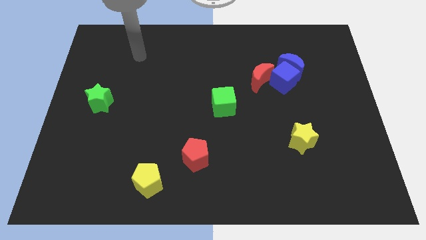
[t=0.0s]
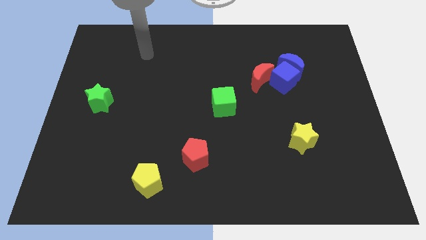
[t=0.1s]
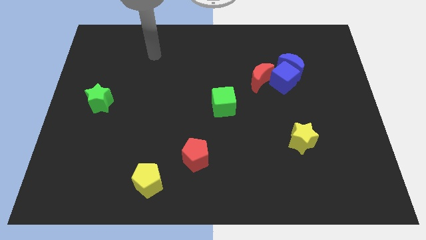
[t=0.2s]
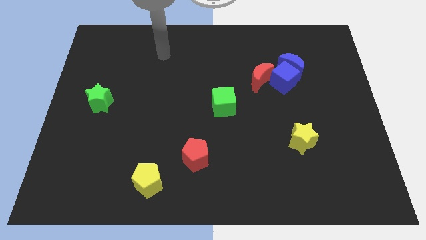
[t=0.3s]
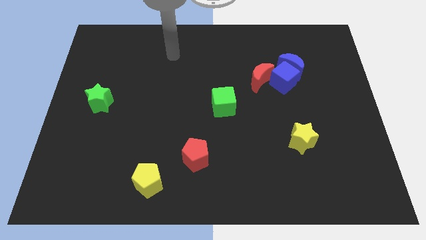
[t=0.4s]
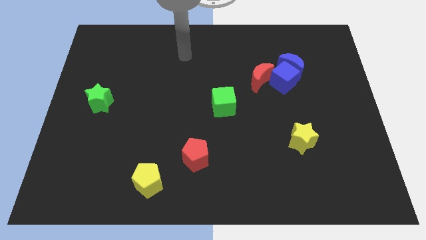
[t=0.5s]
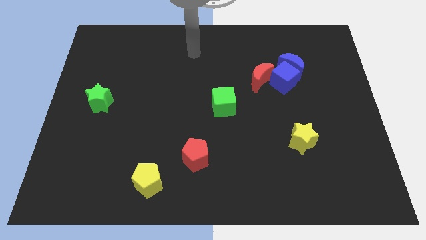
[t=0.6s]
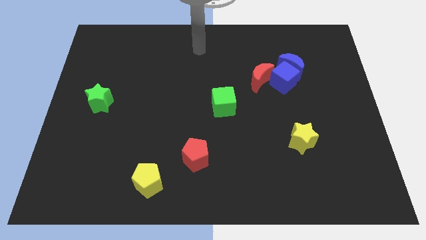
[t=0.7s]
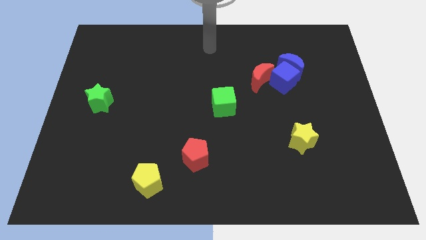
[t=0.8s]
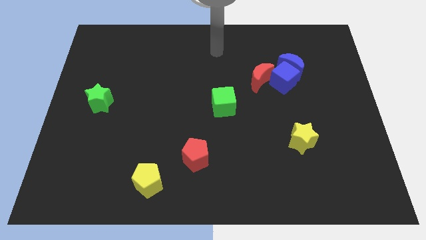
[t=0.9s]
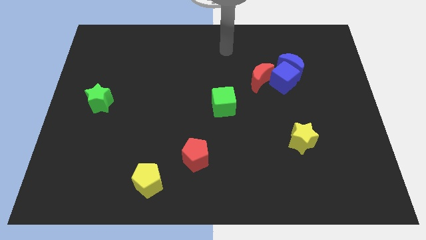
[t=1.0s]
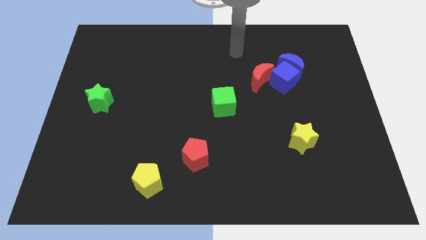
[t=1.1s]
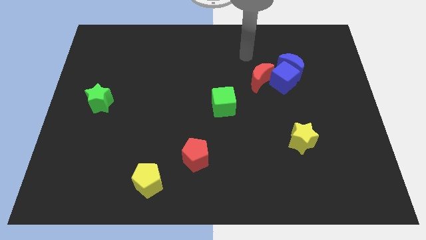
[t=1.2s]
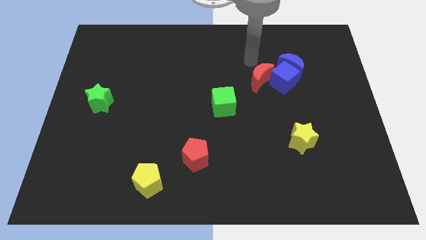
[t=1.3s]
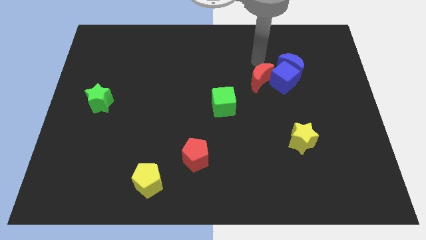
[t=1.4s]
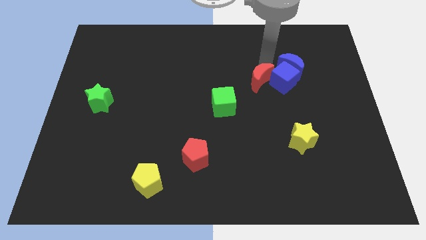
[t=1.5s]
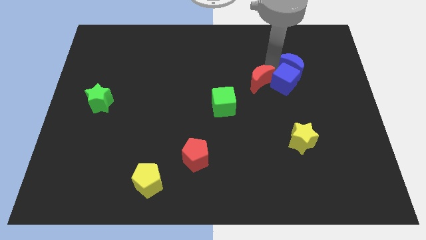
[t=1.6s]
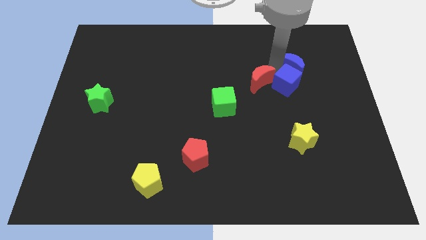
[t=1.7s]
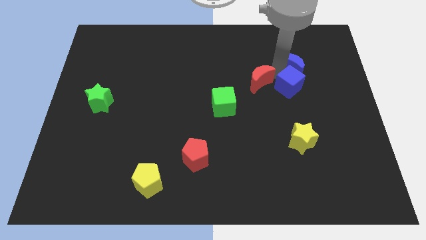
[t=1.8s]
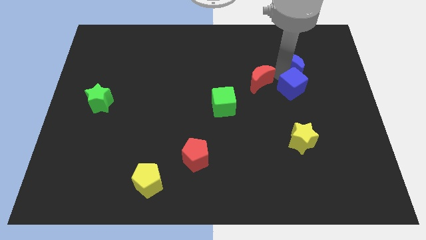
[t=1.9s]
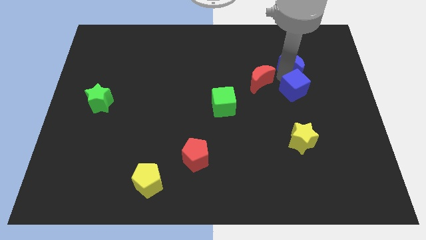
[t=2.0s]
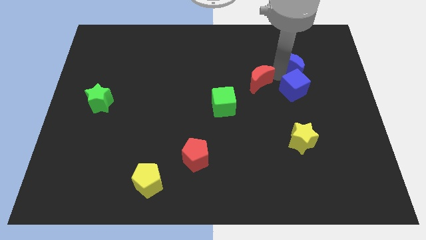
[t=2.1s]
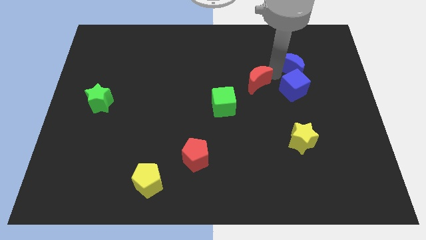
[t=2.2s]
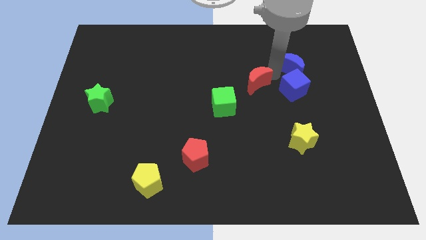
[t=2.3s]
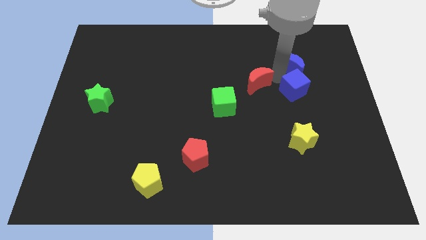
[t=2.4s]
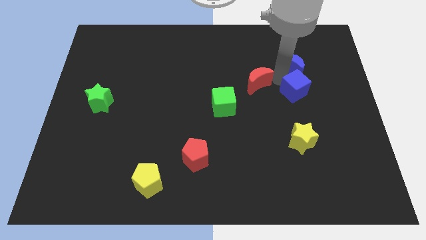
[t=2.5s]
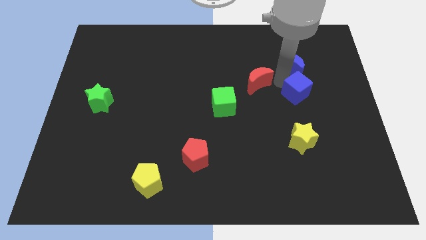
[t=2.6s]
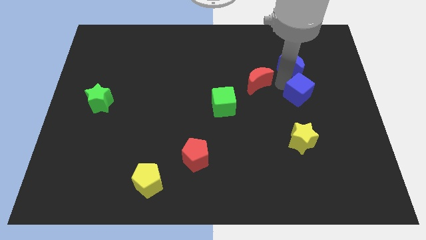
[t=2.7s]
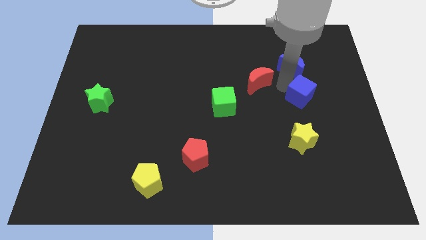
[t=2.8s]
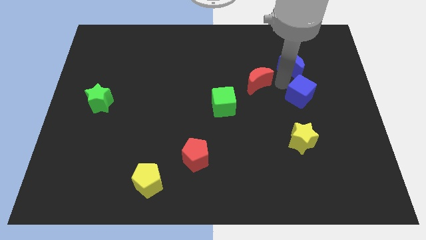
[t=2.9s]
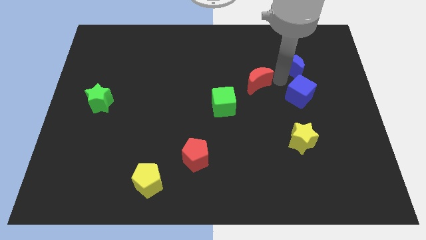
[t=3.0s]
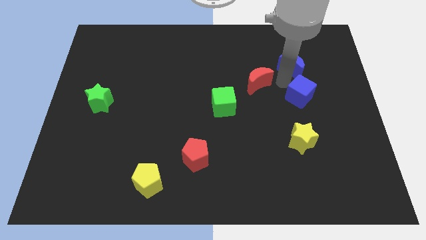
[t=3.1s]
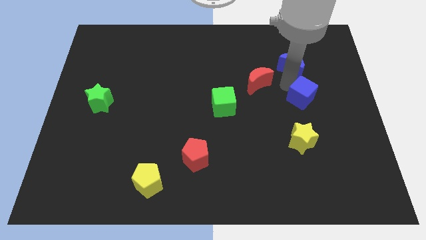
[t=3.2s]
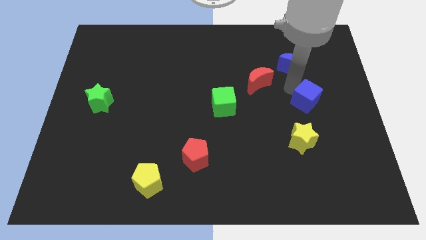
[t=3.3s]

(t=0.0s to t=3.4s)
separate the blue cube from the blue moon and red moon

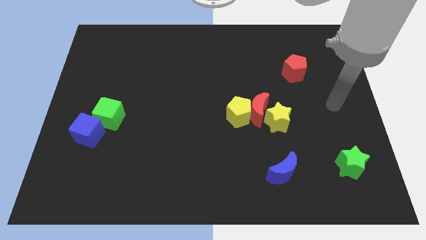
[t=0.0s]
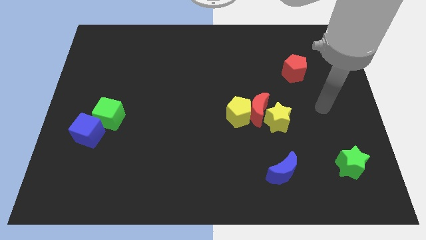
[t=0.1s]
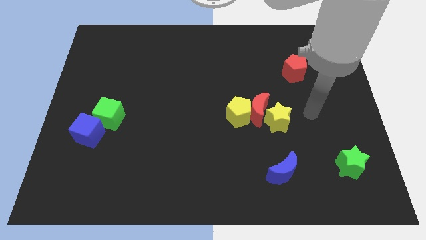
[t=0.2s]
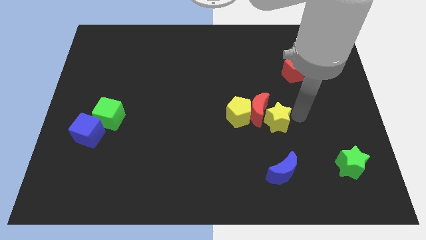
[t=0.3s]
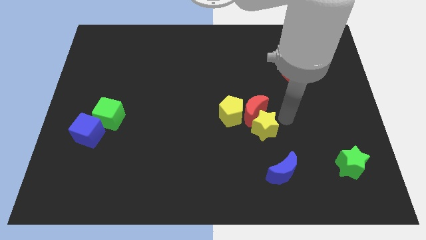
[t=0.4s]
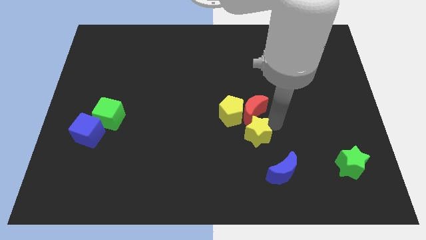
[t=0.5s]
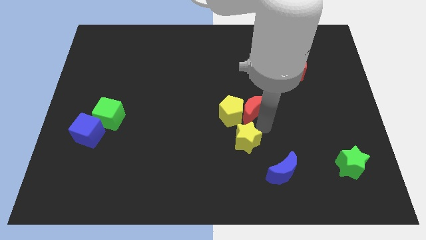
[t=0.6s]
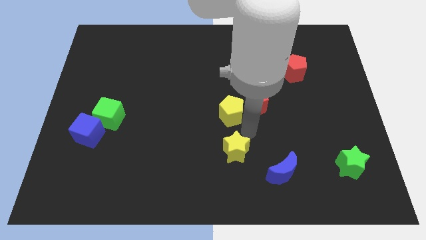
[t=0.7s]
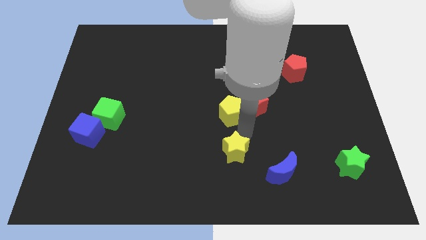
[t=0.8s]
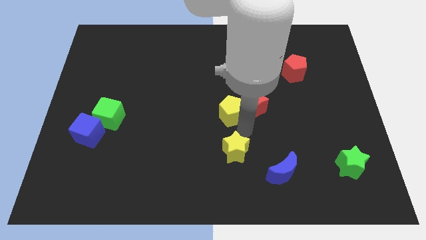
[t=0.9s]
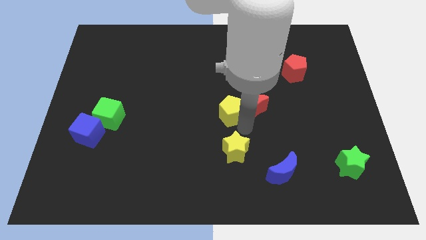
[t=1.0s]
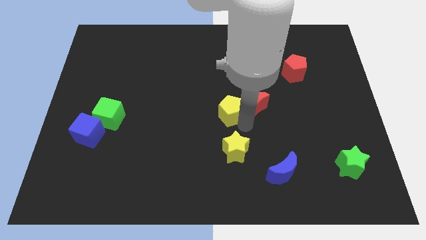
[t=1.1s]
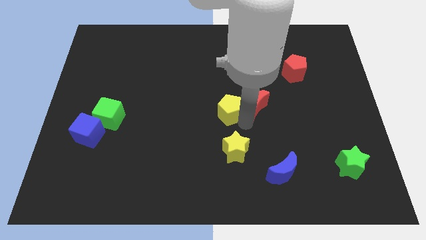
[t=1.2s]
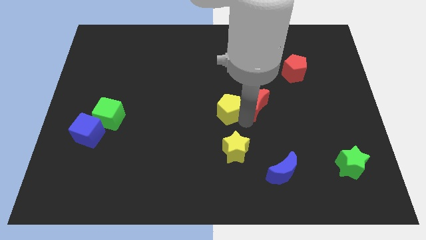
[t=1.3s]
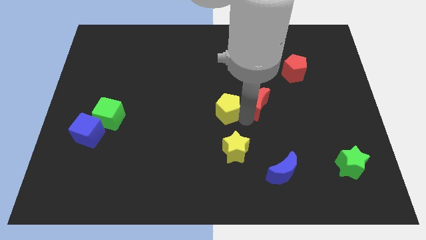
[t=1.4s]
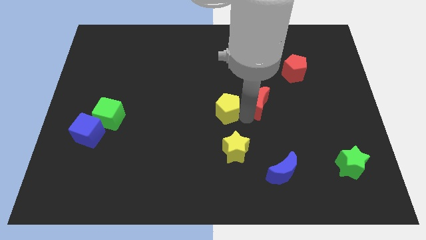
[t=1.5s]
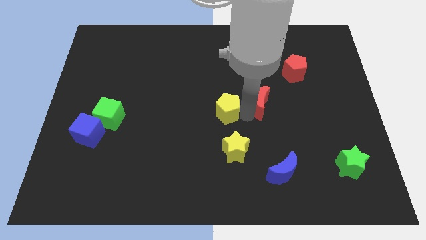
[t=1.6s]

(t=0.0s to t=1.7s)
move the red moon away from the yellow pentagon and yellow star

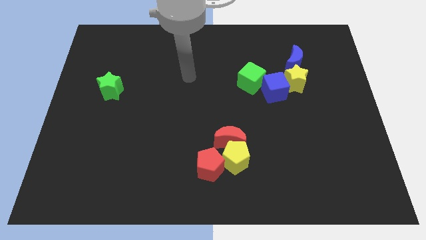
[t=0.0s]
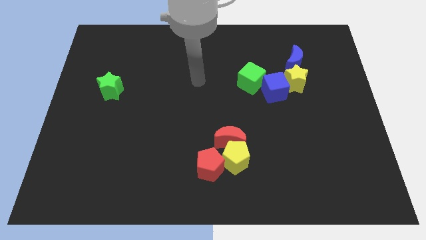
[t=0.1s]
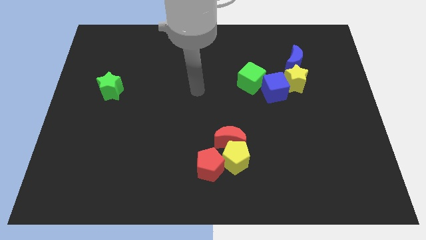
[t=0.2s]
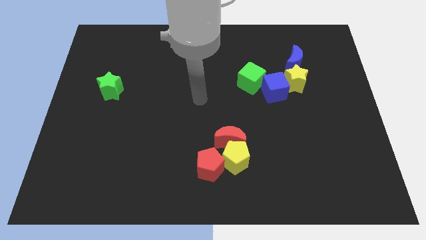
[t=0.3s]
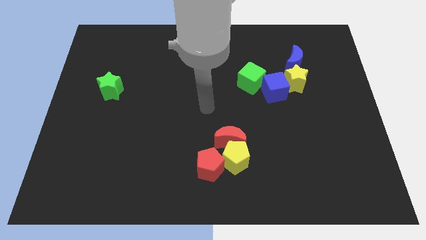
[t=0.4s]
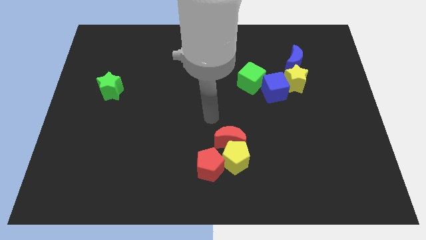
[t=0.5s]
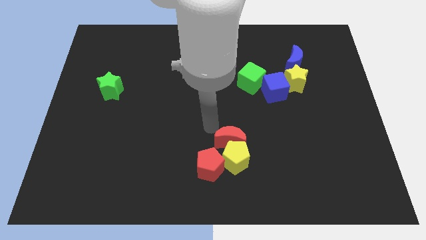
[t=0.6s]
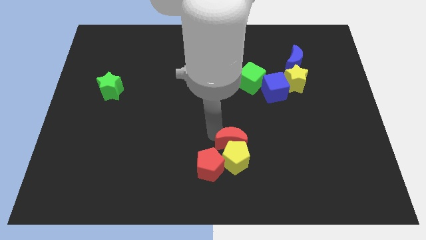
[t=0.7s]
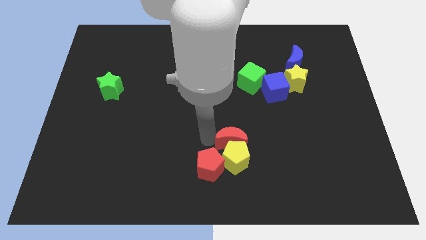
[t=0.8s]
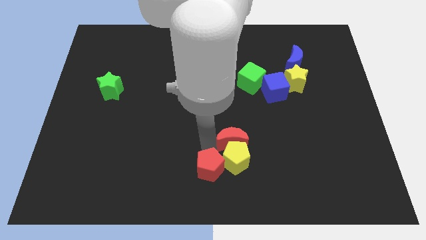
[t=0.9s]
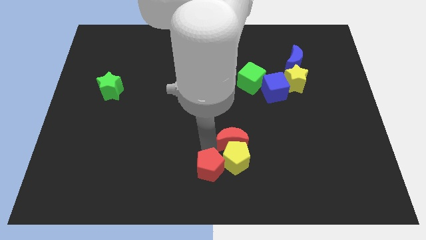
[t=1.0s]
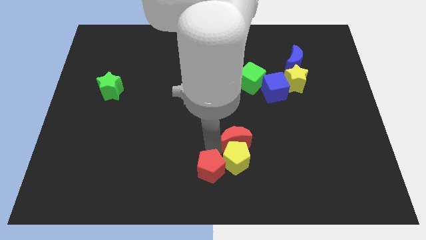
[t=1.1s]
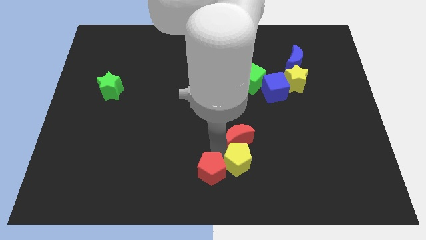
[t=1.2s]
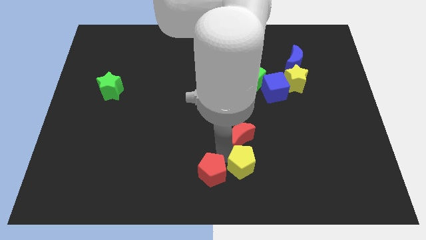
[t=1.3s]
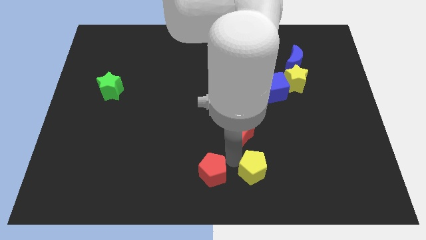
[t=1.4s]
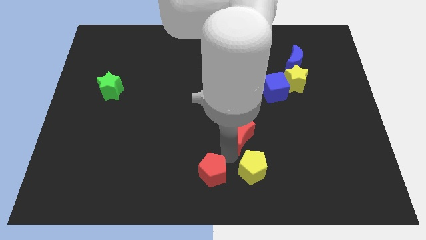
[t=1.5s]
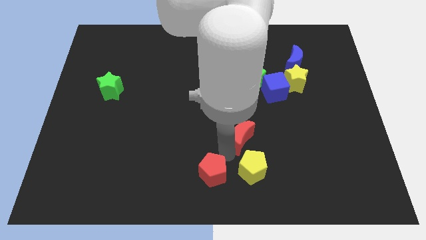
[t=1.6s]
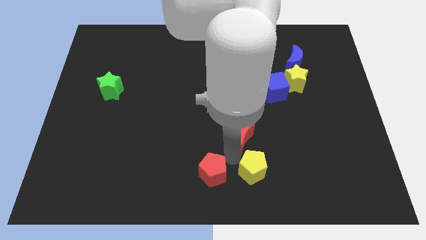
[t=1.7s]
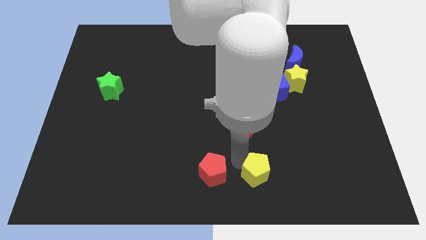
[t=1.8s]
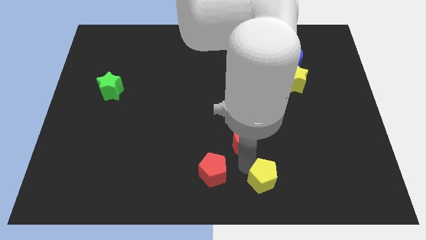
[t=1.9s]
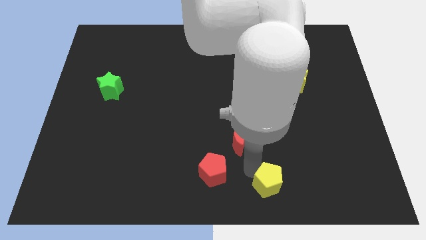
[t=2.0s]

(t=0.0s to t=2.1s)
move the yellow pentagon away from the red moon and red pentagon

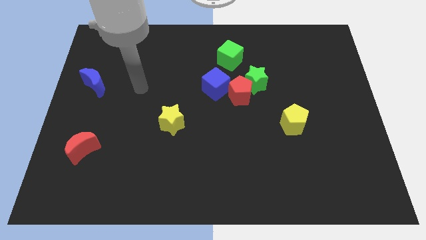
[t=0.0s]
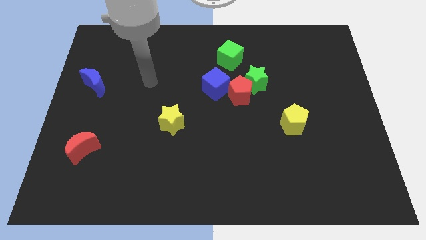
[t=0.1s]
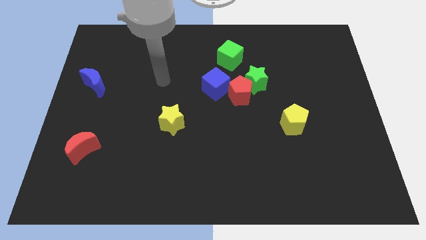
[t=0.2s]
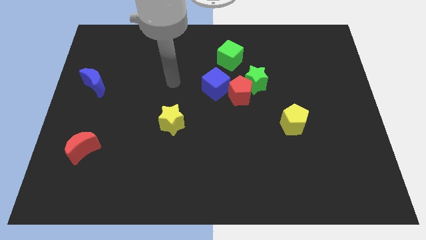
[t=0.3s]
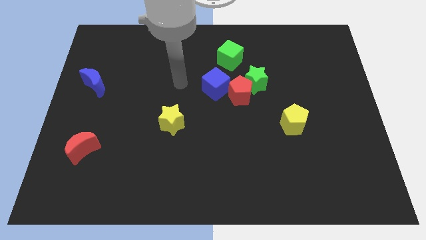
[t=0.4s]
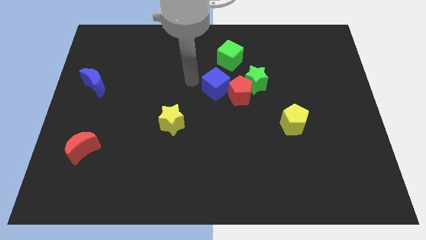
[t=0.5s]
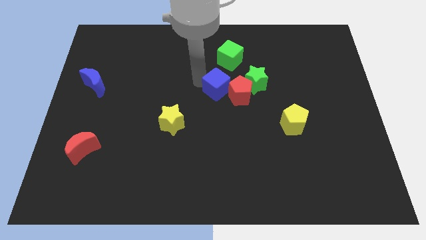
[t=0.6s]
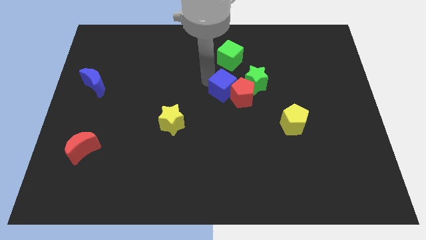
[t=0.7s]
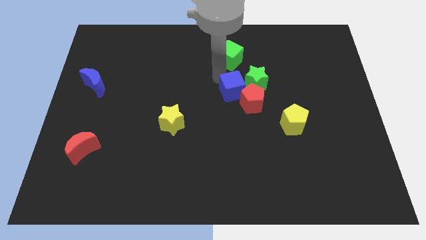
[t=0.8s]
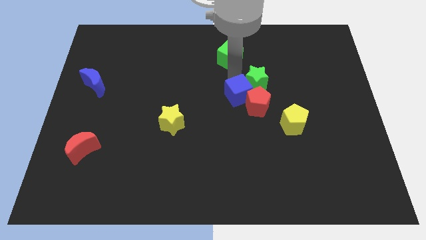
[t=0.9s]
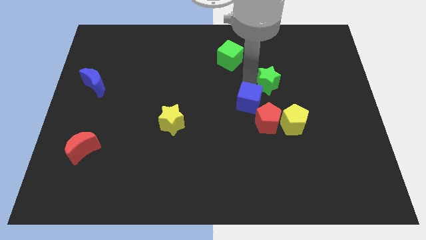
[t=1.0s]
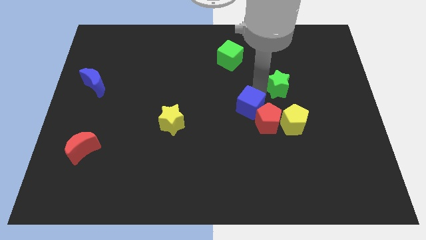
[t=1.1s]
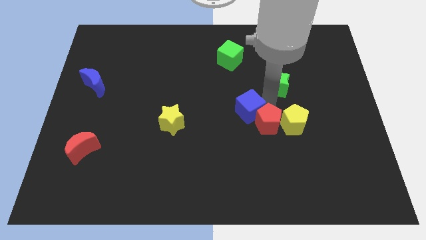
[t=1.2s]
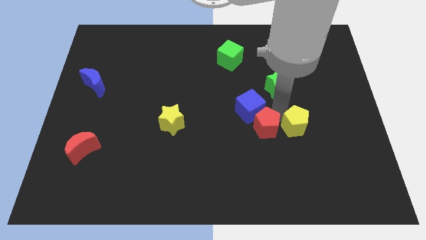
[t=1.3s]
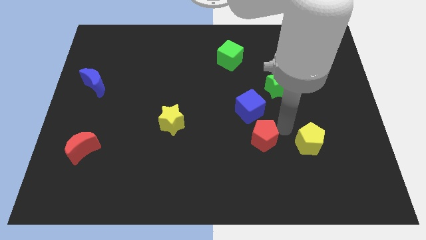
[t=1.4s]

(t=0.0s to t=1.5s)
pull the red pentagon apart from the green star and blue cube

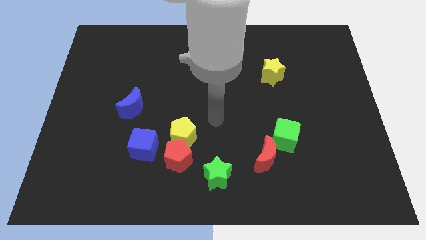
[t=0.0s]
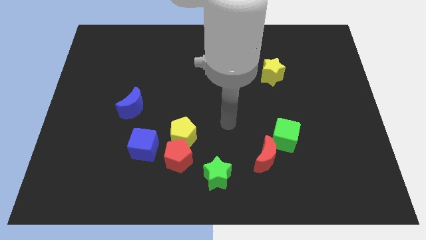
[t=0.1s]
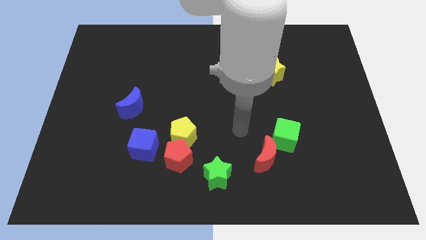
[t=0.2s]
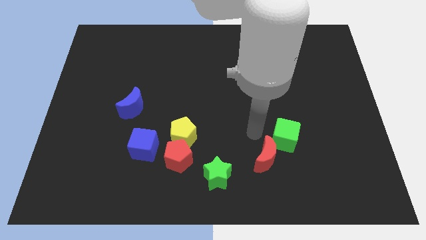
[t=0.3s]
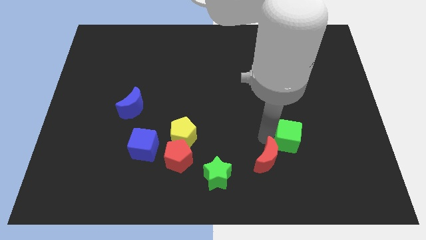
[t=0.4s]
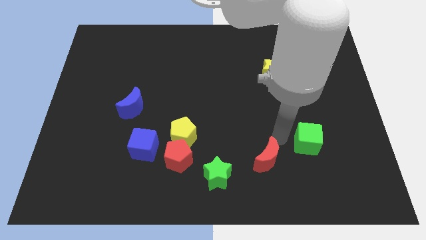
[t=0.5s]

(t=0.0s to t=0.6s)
pull the red moon apart from the green cube
